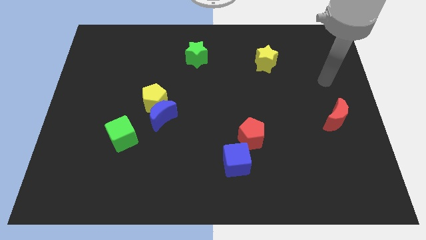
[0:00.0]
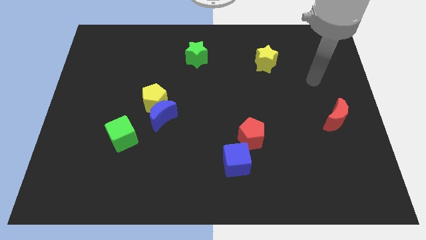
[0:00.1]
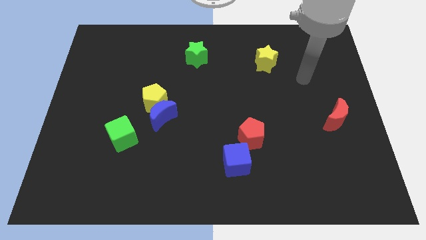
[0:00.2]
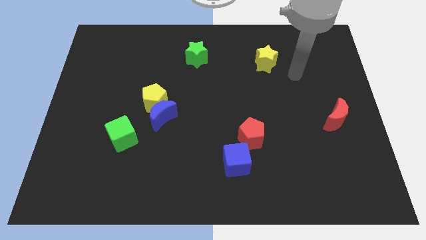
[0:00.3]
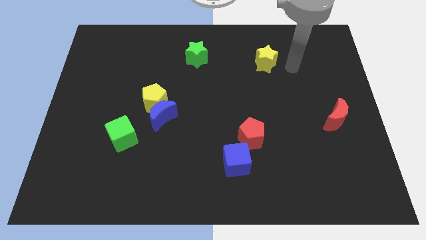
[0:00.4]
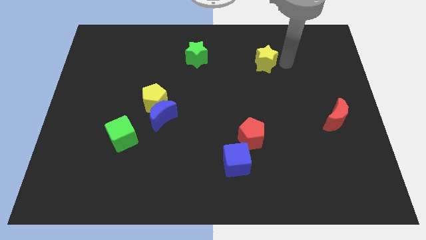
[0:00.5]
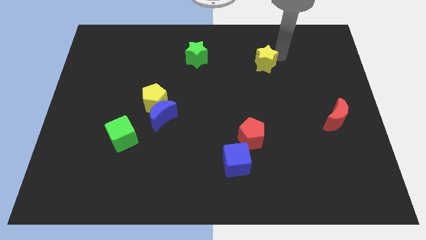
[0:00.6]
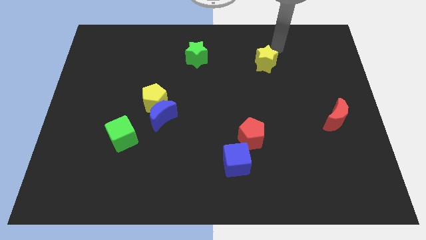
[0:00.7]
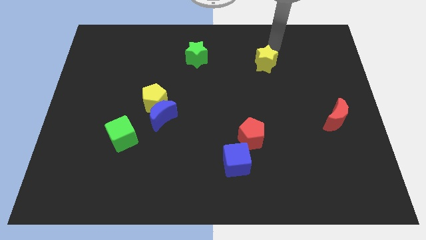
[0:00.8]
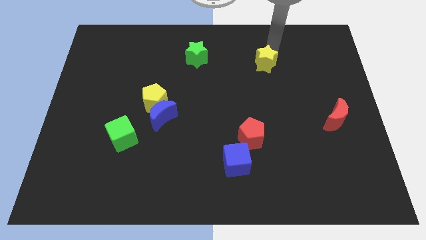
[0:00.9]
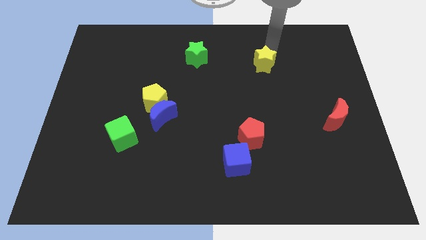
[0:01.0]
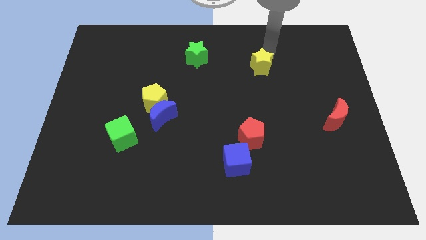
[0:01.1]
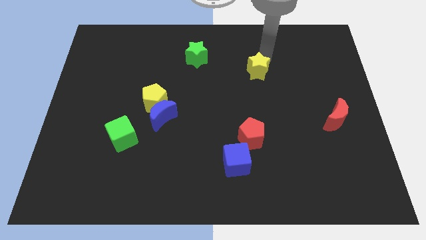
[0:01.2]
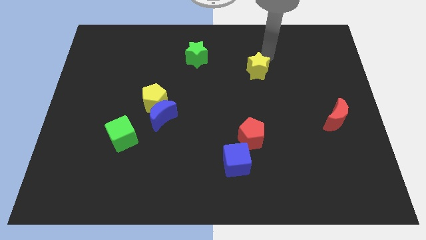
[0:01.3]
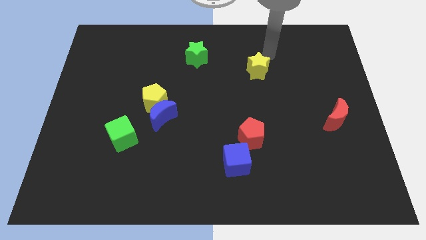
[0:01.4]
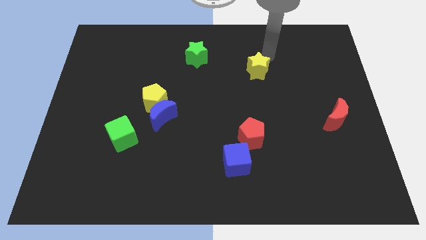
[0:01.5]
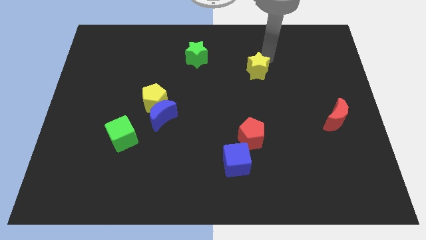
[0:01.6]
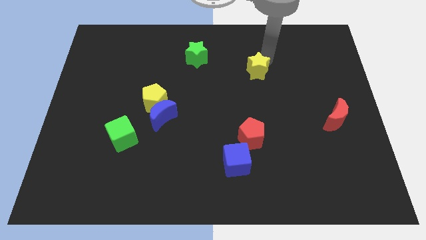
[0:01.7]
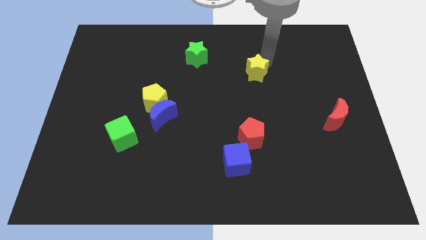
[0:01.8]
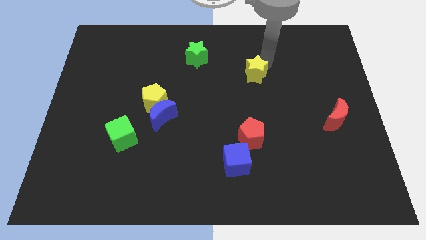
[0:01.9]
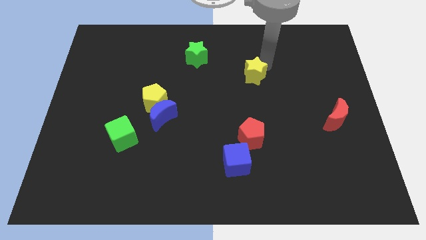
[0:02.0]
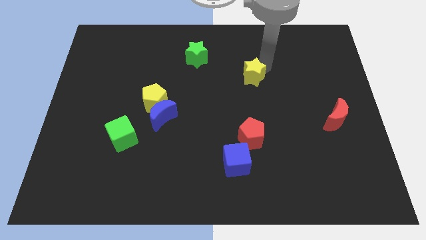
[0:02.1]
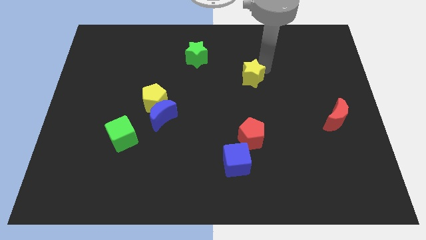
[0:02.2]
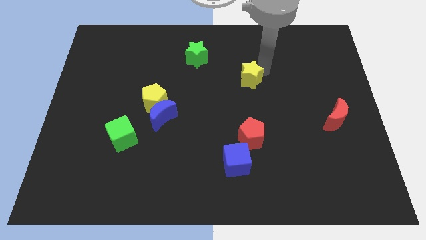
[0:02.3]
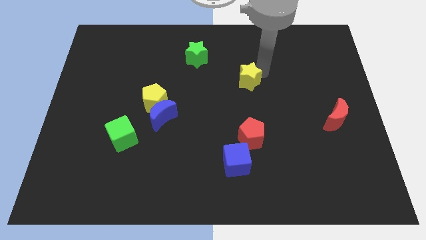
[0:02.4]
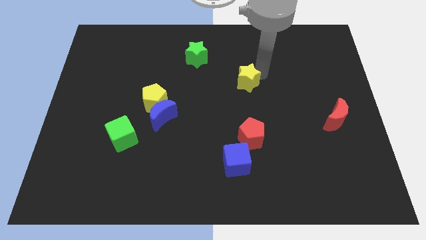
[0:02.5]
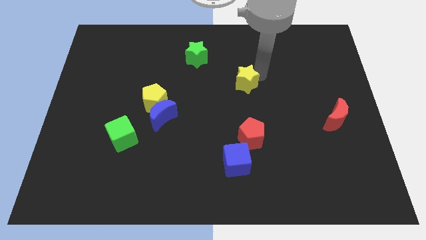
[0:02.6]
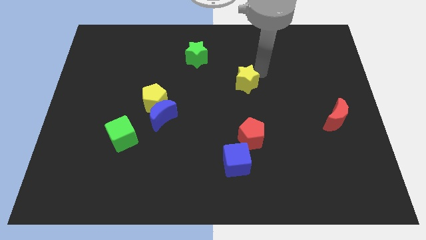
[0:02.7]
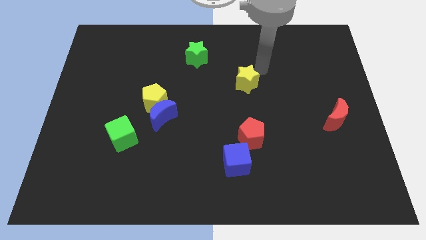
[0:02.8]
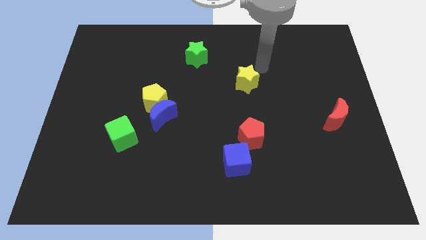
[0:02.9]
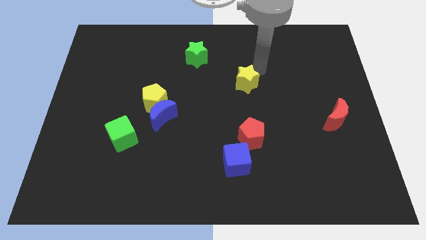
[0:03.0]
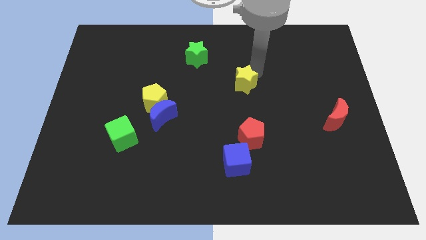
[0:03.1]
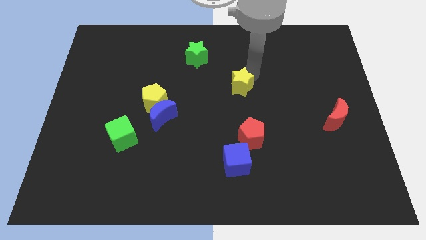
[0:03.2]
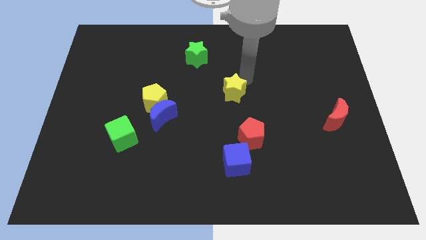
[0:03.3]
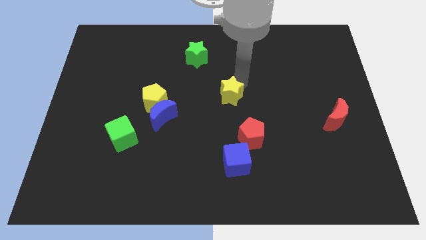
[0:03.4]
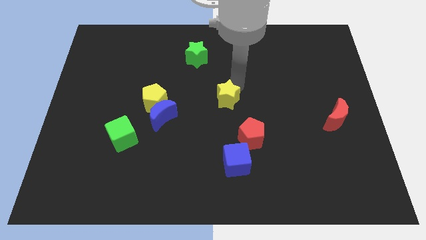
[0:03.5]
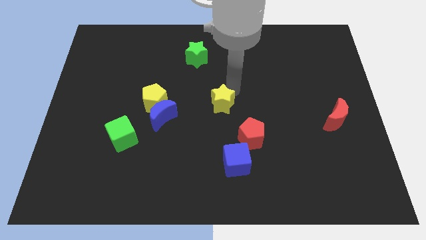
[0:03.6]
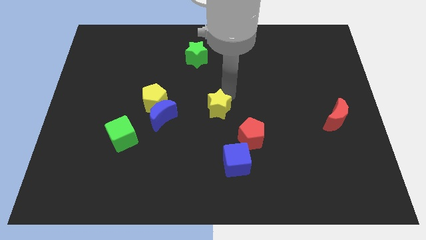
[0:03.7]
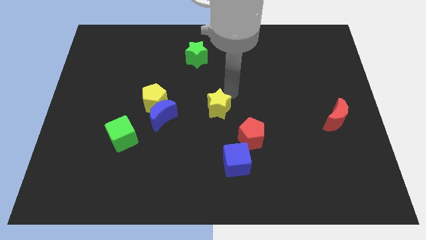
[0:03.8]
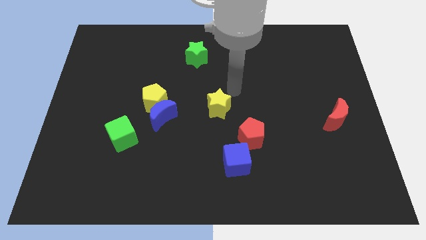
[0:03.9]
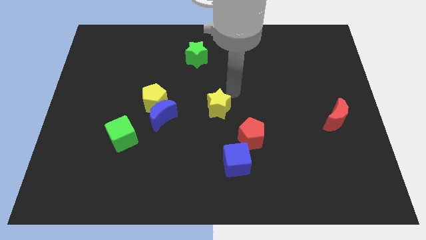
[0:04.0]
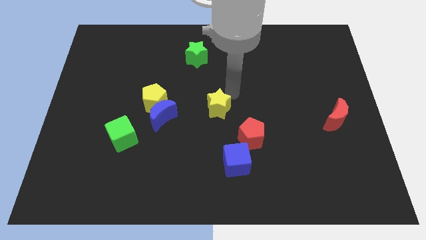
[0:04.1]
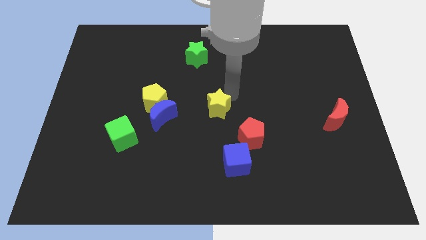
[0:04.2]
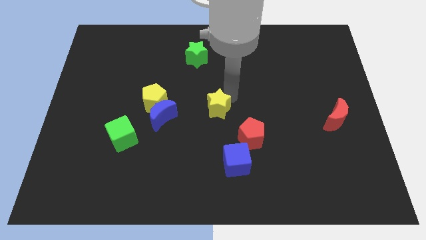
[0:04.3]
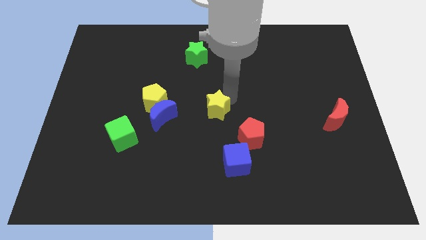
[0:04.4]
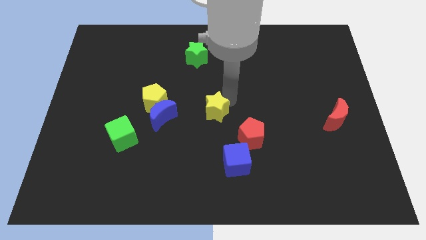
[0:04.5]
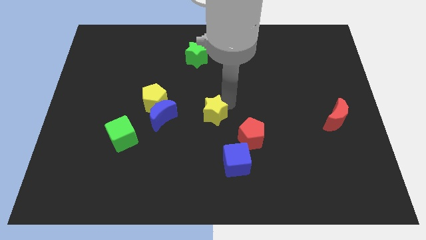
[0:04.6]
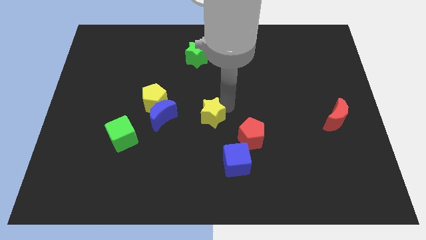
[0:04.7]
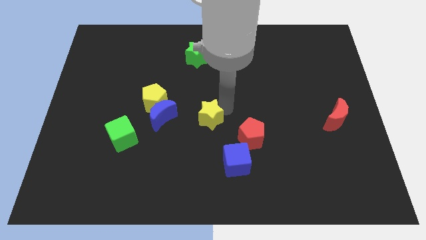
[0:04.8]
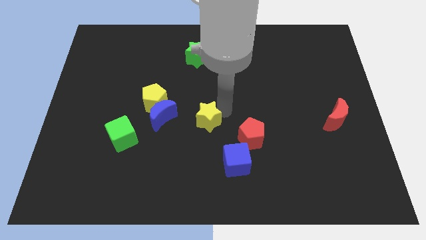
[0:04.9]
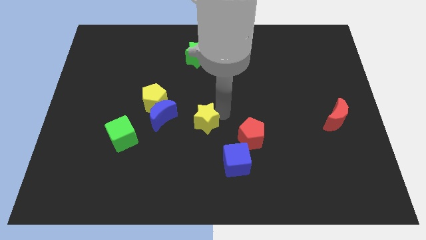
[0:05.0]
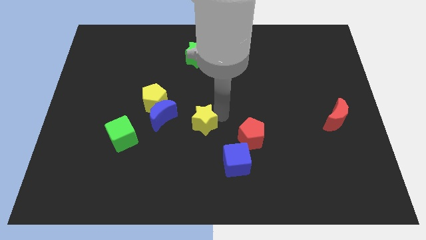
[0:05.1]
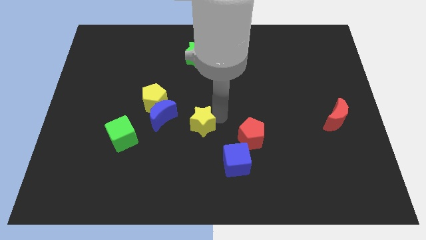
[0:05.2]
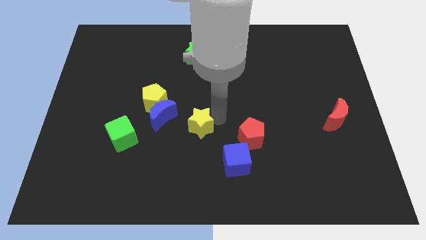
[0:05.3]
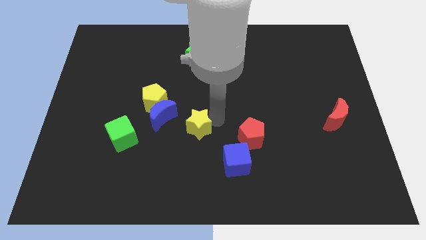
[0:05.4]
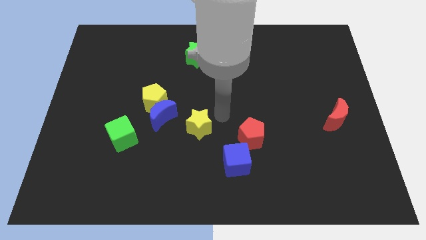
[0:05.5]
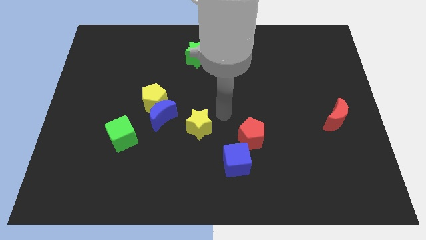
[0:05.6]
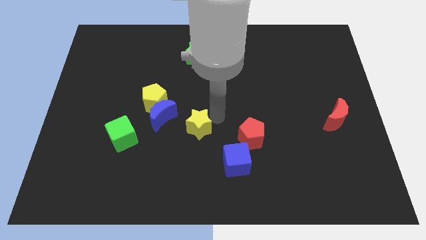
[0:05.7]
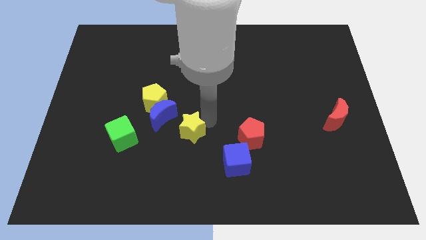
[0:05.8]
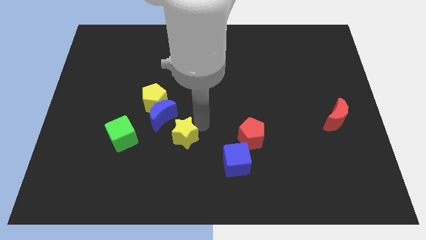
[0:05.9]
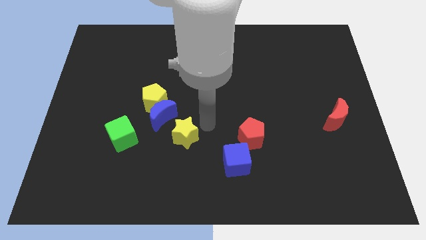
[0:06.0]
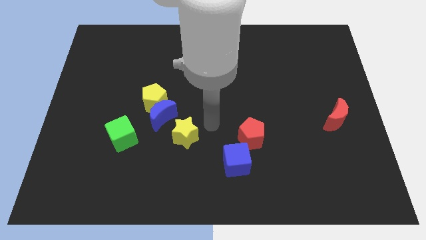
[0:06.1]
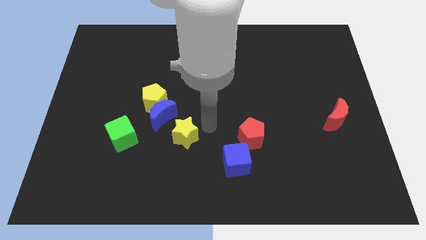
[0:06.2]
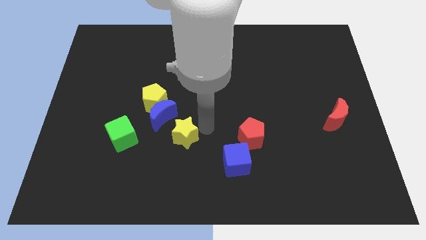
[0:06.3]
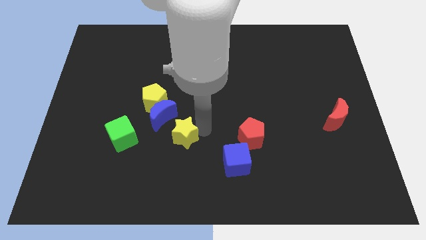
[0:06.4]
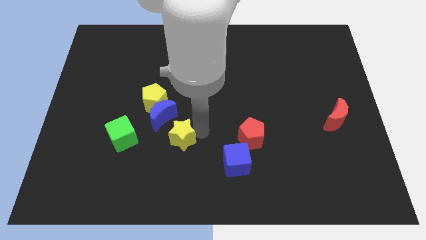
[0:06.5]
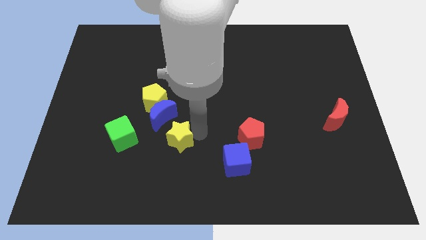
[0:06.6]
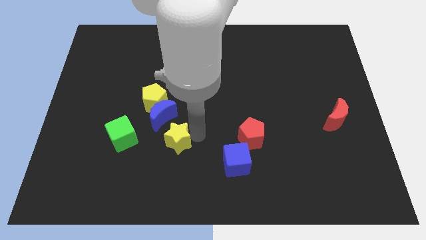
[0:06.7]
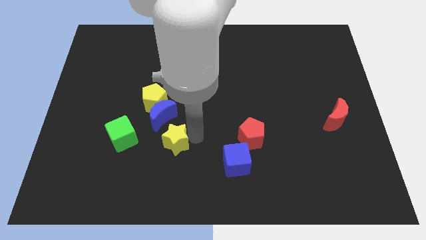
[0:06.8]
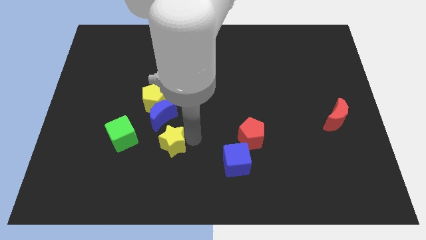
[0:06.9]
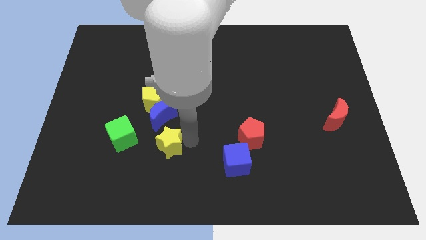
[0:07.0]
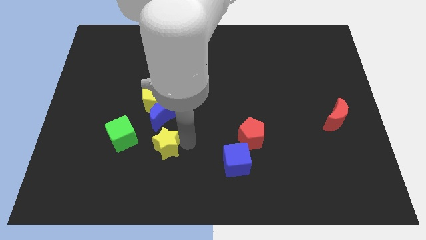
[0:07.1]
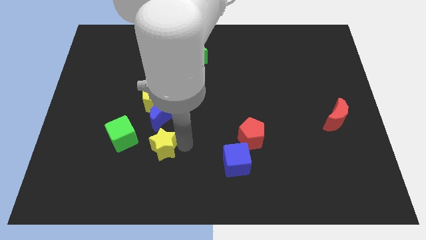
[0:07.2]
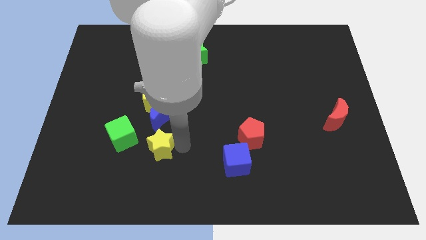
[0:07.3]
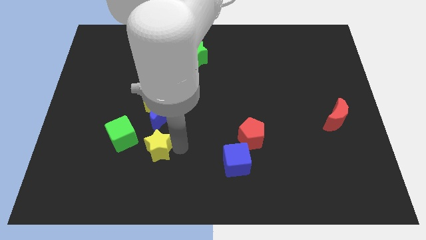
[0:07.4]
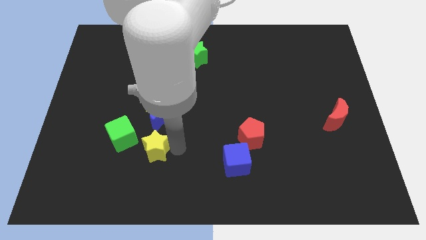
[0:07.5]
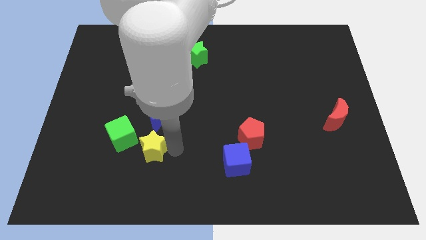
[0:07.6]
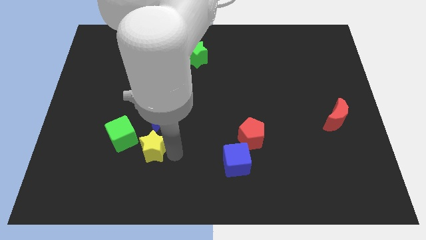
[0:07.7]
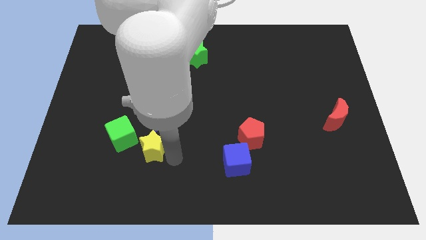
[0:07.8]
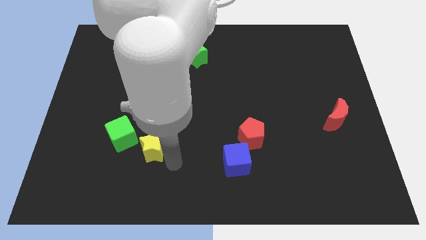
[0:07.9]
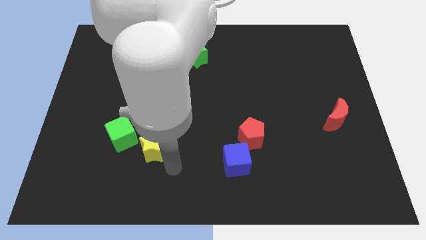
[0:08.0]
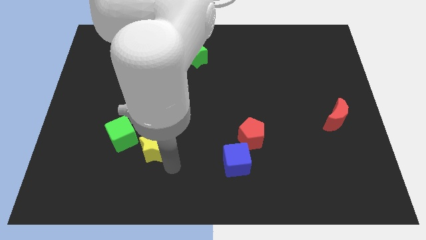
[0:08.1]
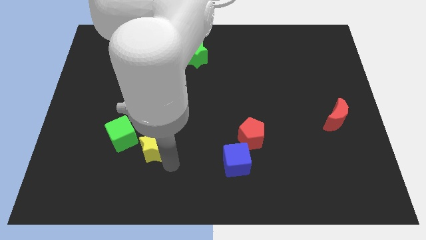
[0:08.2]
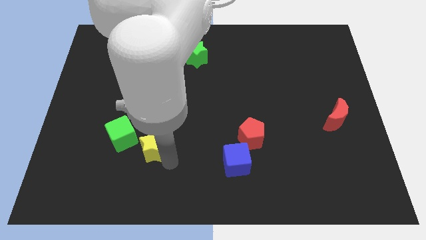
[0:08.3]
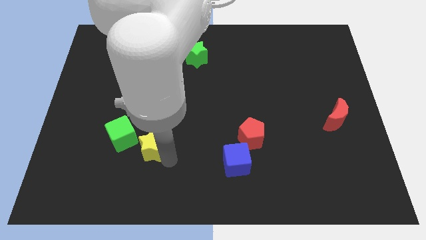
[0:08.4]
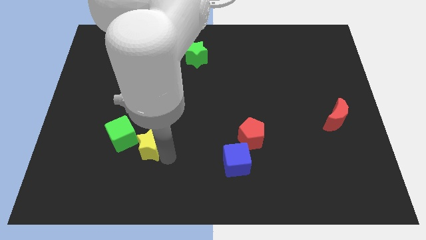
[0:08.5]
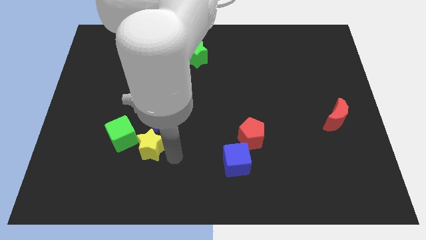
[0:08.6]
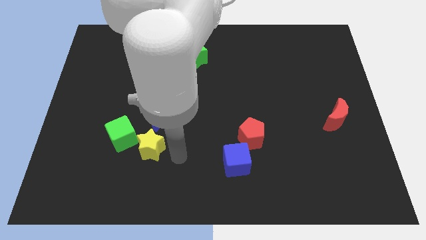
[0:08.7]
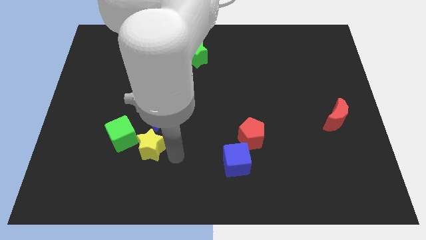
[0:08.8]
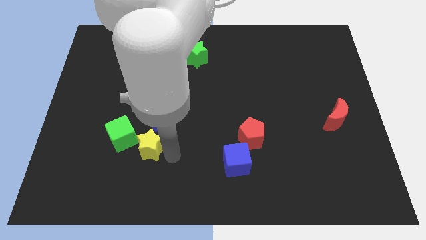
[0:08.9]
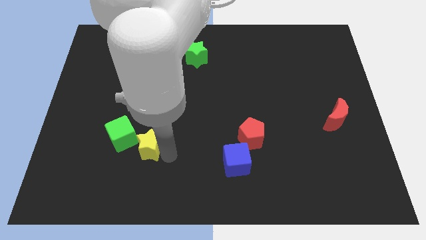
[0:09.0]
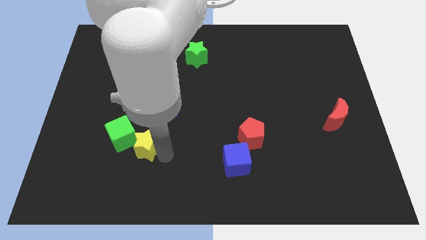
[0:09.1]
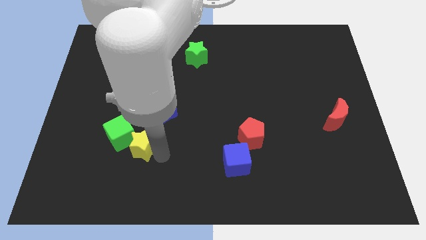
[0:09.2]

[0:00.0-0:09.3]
slide the yellow star towards the green cube
